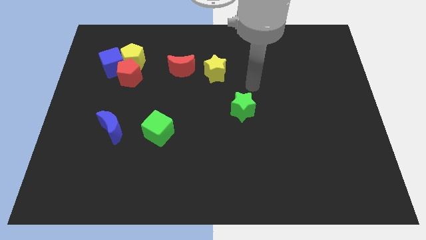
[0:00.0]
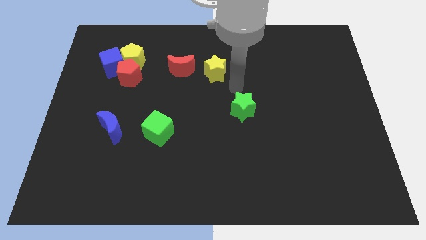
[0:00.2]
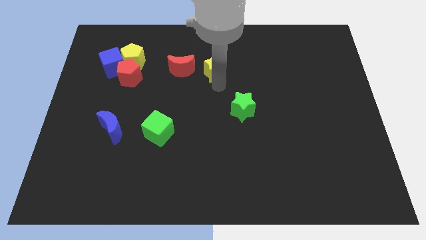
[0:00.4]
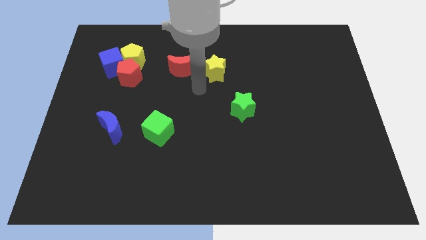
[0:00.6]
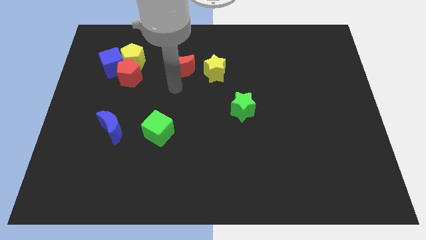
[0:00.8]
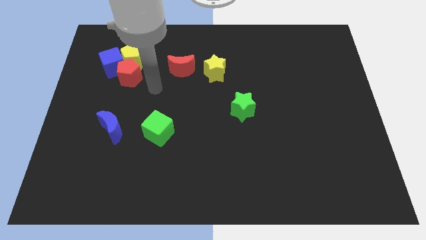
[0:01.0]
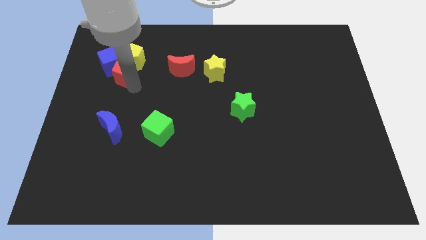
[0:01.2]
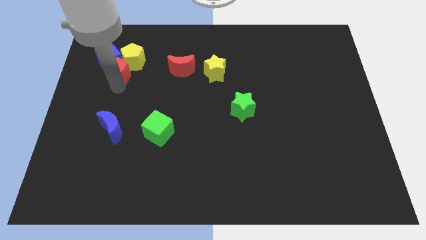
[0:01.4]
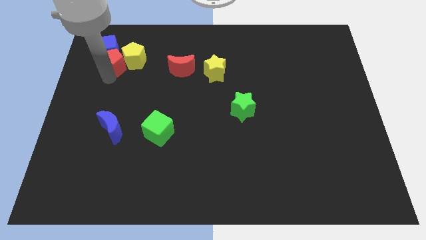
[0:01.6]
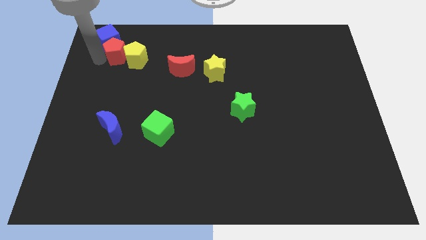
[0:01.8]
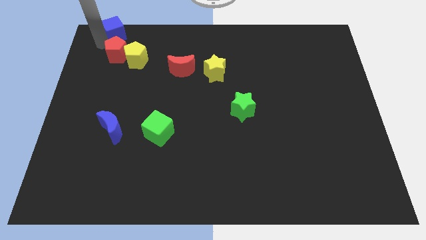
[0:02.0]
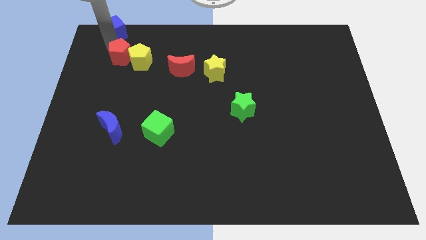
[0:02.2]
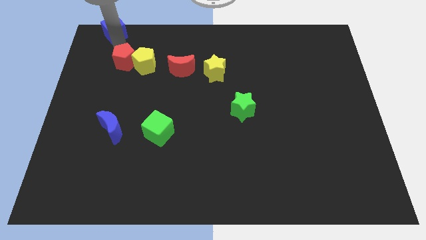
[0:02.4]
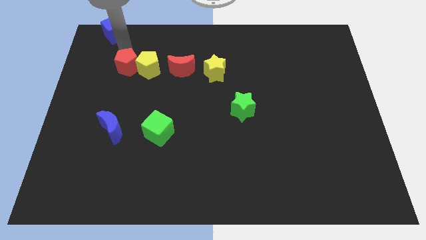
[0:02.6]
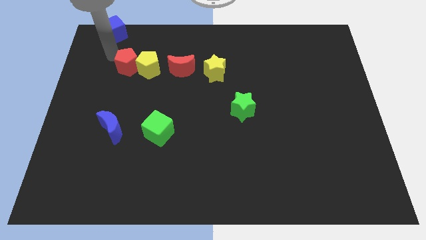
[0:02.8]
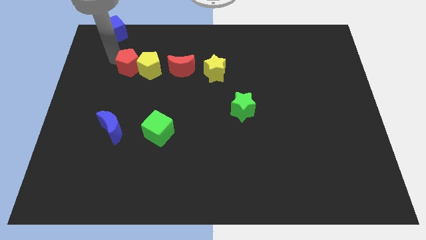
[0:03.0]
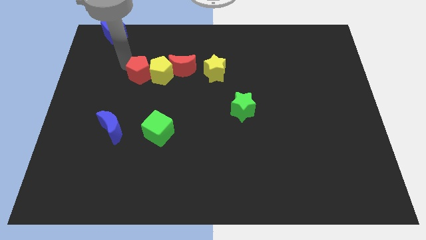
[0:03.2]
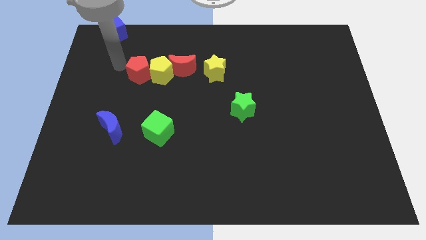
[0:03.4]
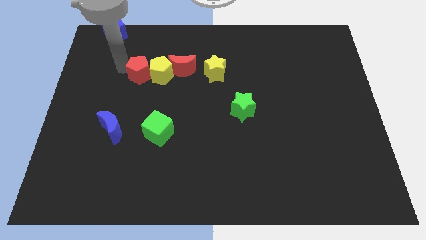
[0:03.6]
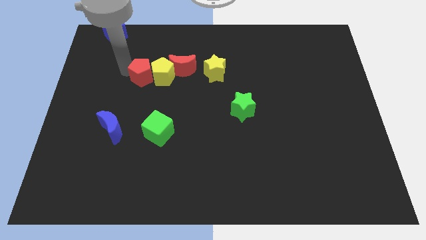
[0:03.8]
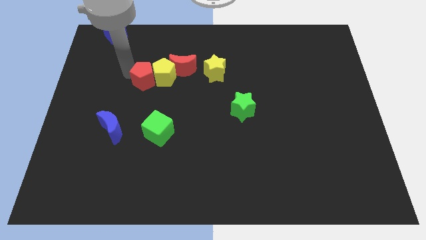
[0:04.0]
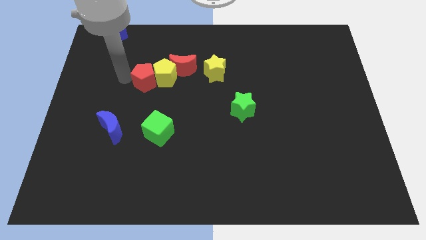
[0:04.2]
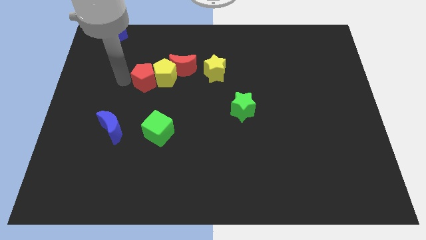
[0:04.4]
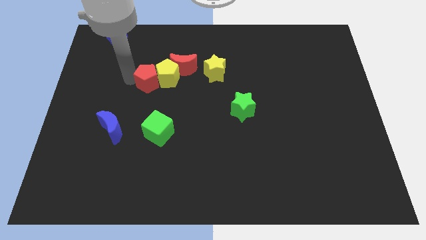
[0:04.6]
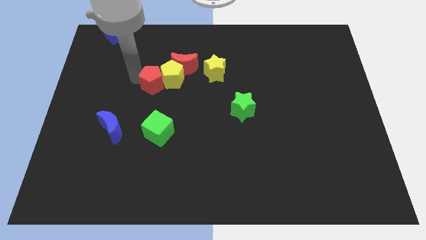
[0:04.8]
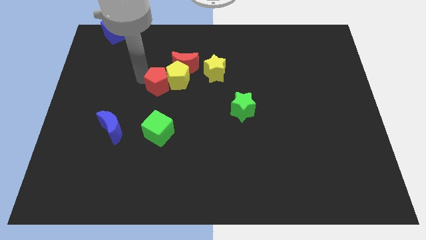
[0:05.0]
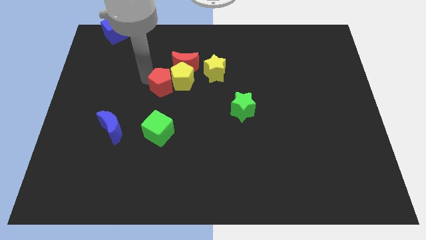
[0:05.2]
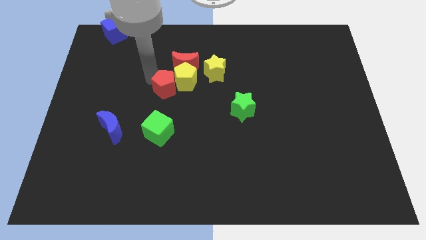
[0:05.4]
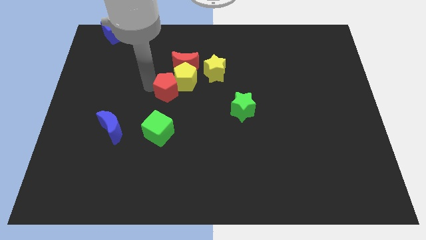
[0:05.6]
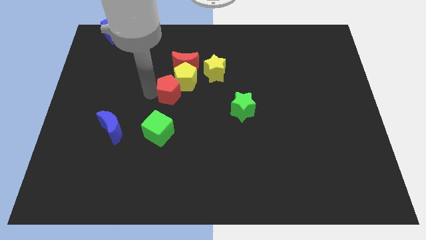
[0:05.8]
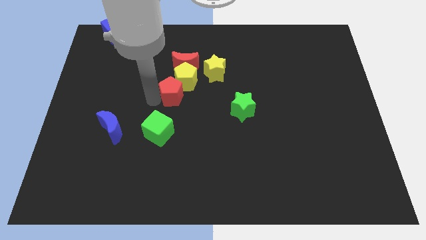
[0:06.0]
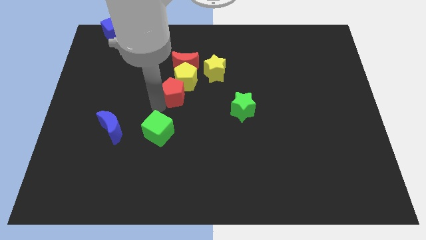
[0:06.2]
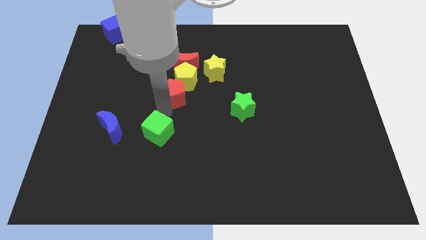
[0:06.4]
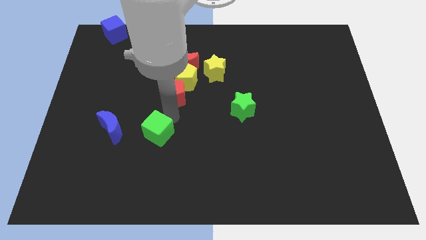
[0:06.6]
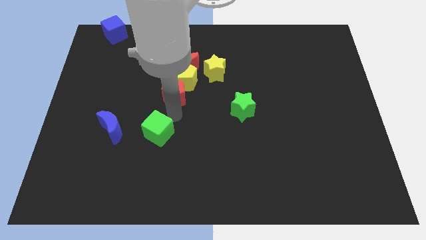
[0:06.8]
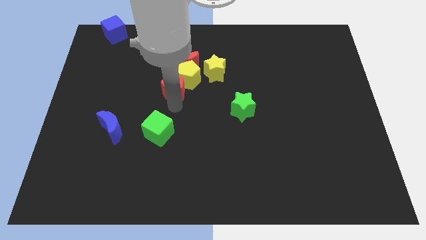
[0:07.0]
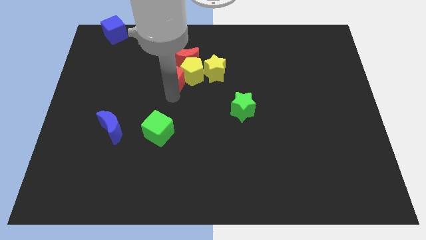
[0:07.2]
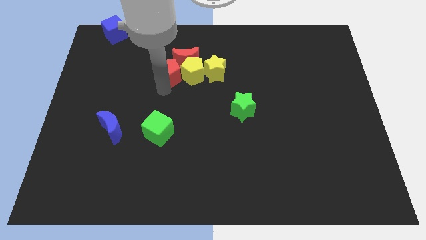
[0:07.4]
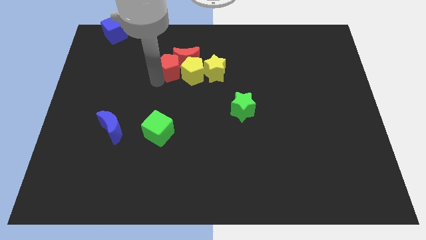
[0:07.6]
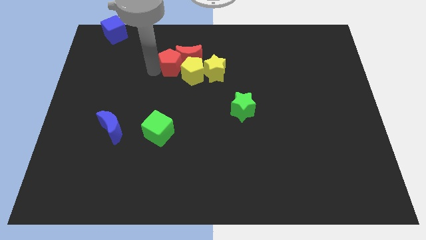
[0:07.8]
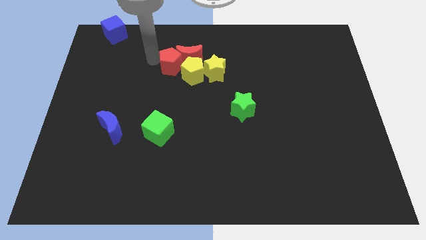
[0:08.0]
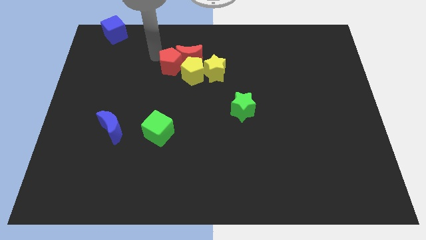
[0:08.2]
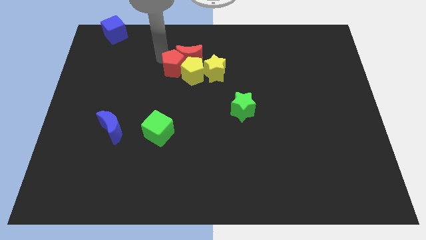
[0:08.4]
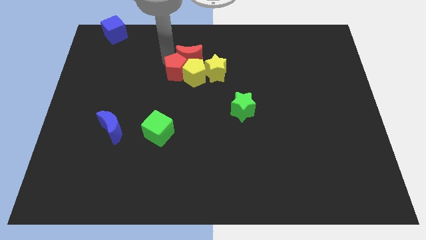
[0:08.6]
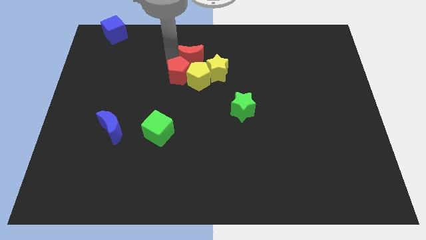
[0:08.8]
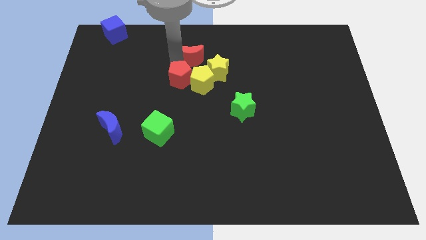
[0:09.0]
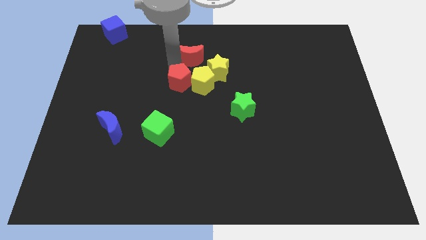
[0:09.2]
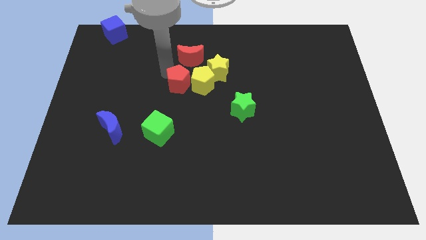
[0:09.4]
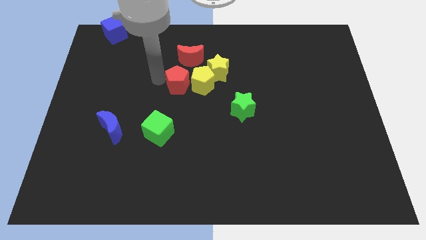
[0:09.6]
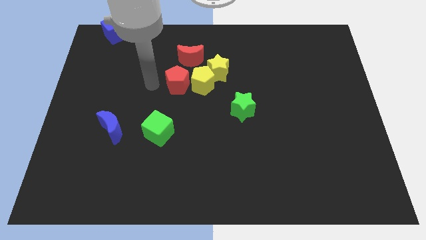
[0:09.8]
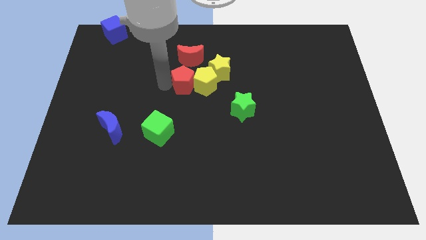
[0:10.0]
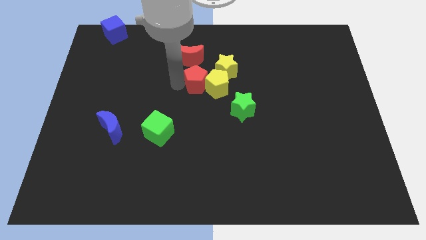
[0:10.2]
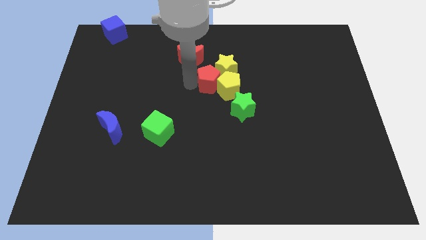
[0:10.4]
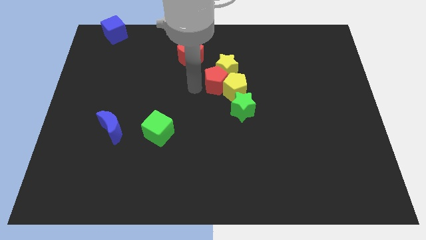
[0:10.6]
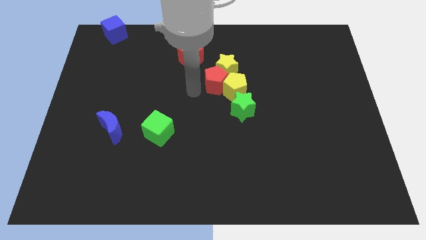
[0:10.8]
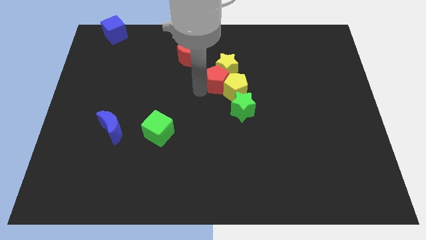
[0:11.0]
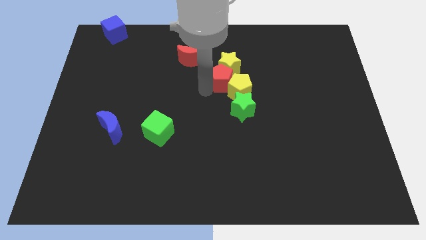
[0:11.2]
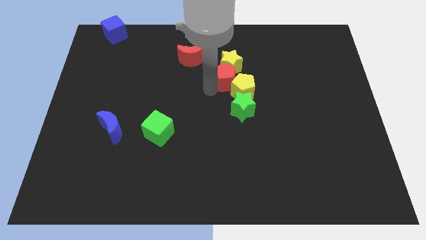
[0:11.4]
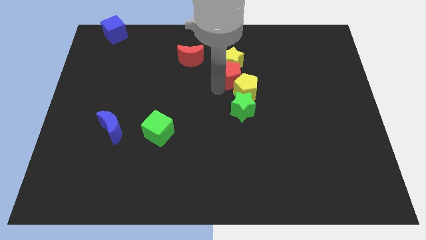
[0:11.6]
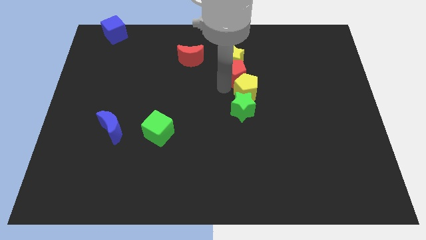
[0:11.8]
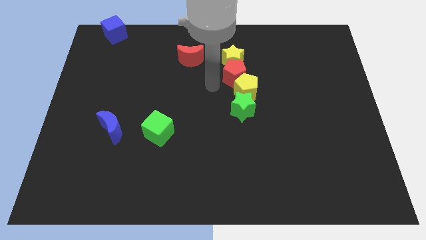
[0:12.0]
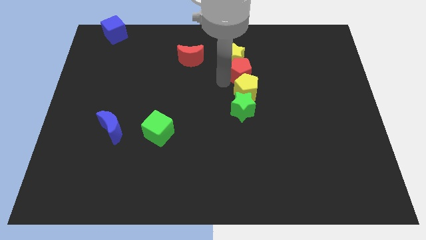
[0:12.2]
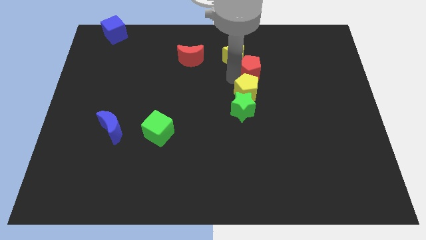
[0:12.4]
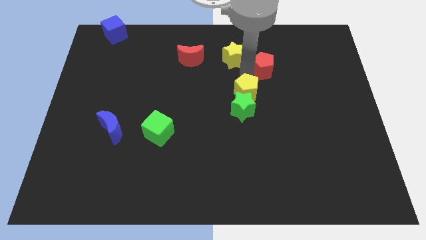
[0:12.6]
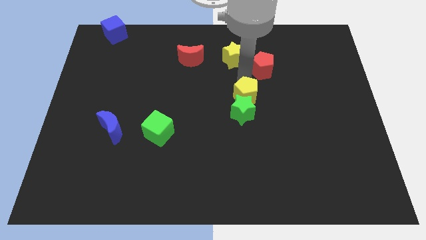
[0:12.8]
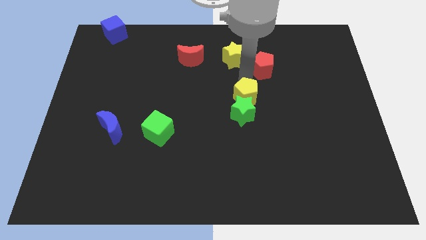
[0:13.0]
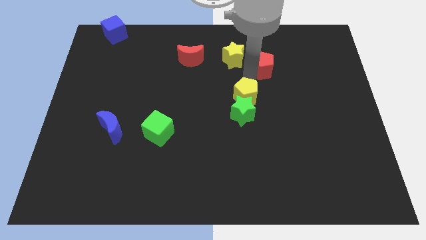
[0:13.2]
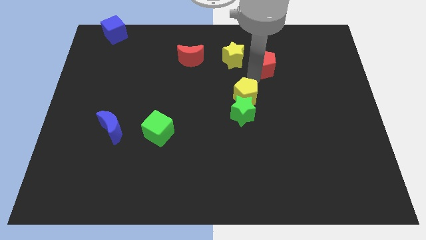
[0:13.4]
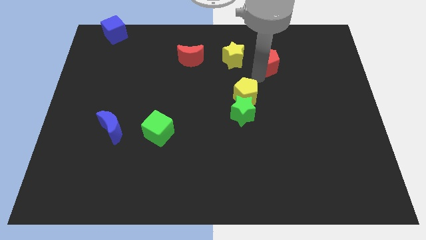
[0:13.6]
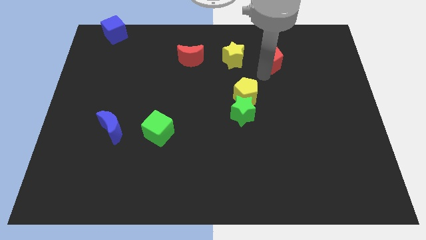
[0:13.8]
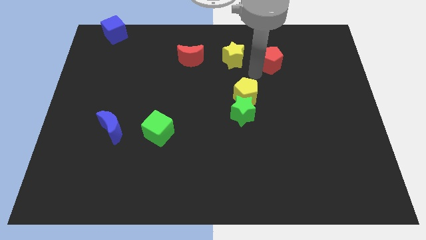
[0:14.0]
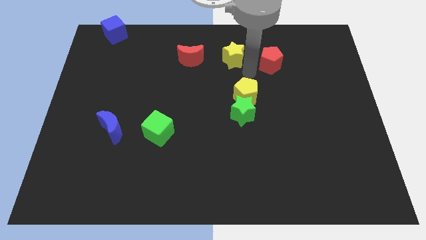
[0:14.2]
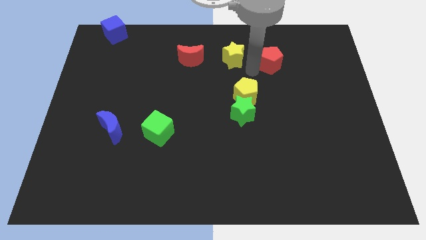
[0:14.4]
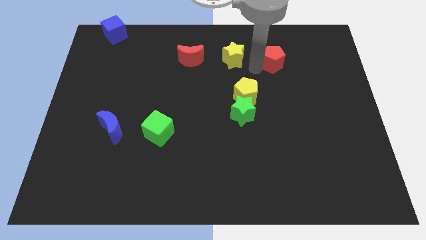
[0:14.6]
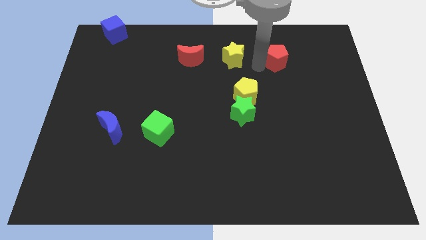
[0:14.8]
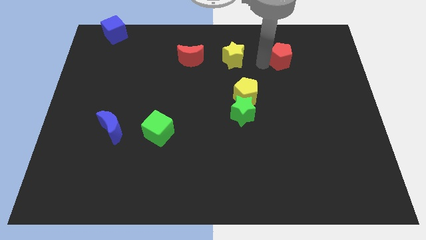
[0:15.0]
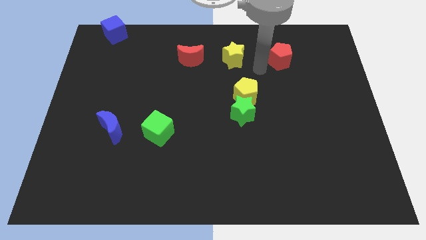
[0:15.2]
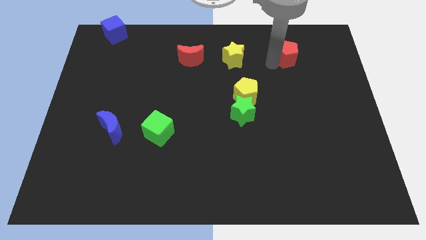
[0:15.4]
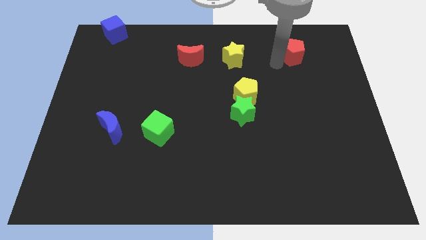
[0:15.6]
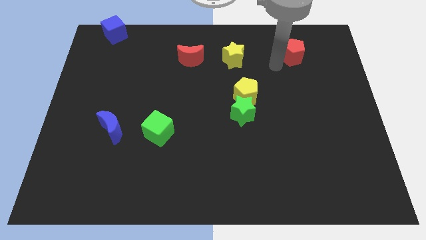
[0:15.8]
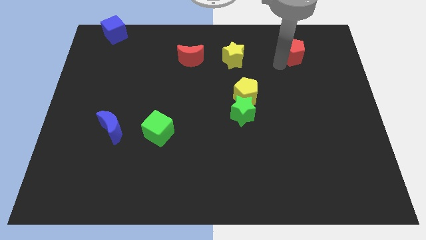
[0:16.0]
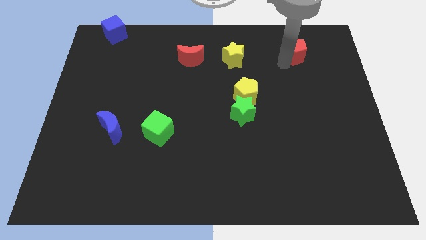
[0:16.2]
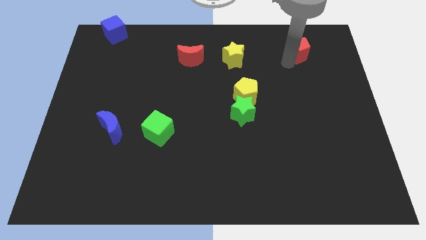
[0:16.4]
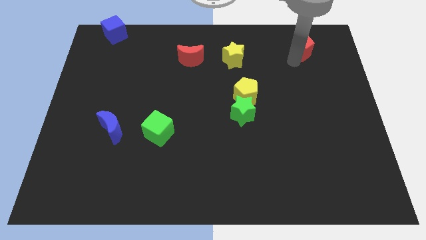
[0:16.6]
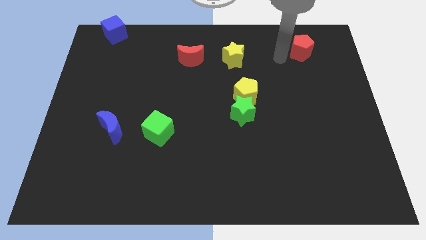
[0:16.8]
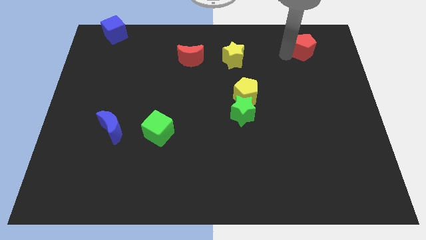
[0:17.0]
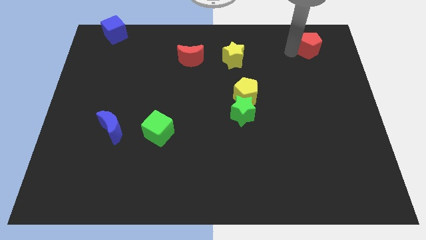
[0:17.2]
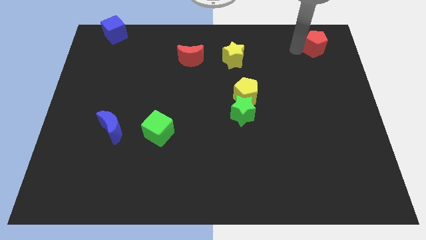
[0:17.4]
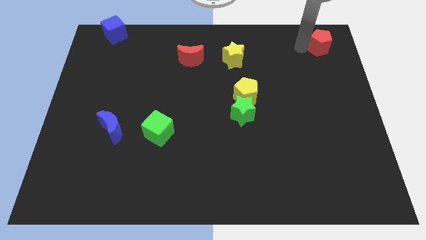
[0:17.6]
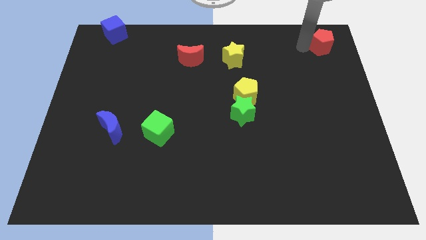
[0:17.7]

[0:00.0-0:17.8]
slide the red pentagon to the top right of the board
